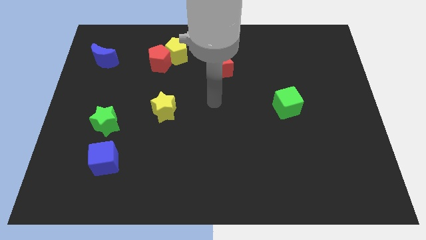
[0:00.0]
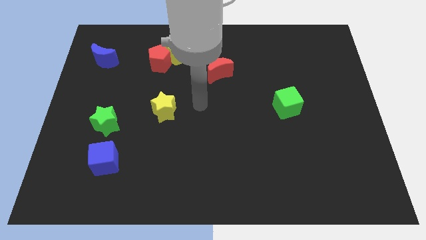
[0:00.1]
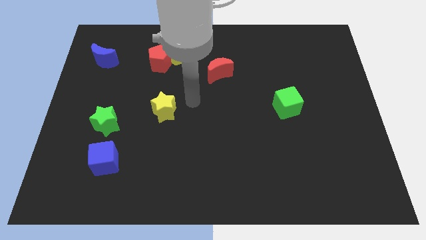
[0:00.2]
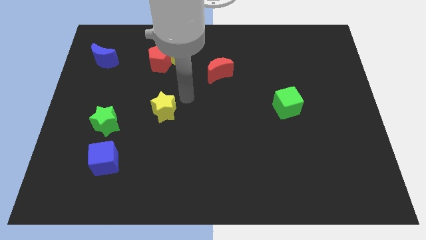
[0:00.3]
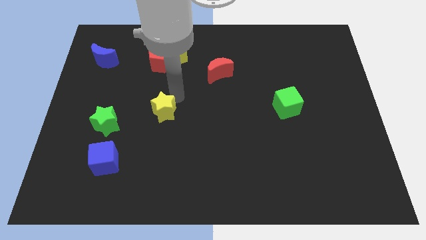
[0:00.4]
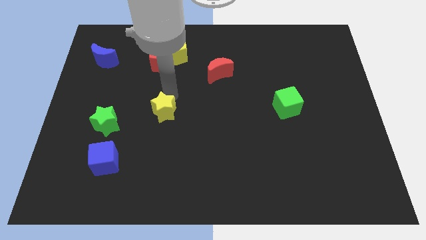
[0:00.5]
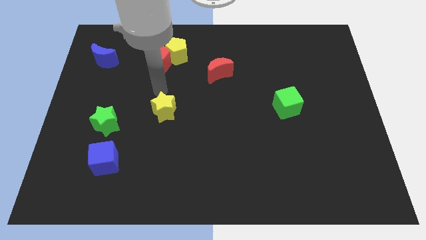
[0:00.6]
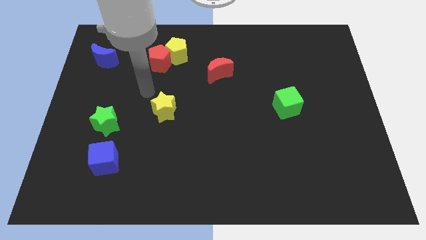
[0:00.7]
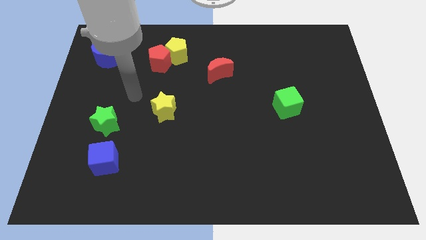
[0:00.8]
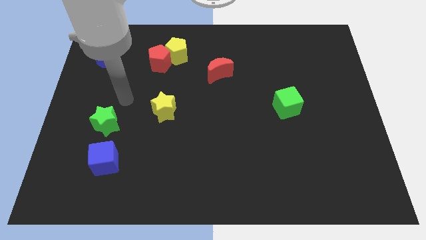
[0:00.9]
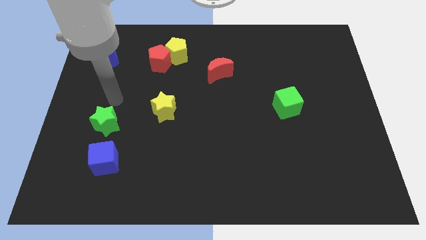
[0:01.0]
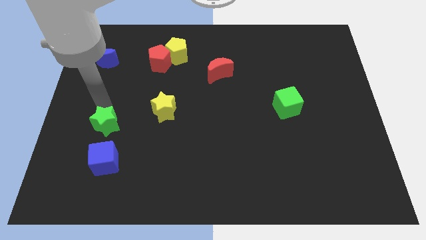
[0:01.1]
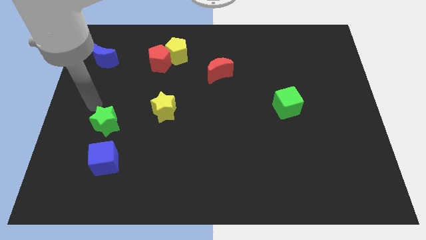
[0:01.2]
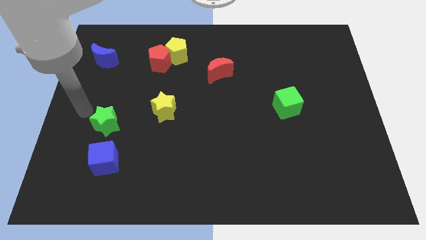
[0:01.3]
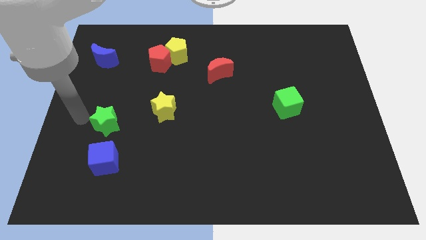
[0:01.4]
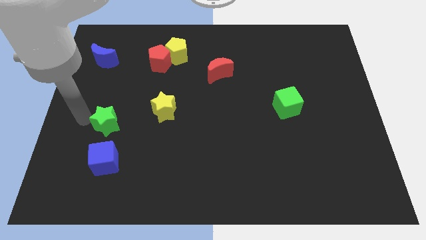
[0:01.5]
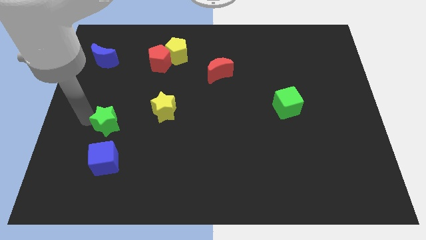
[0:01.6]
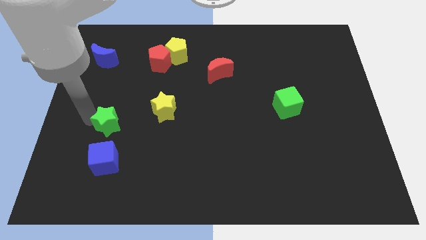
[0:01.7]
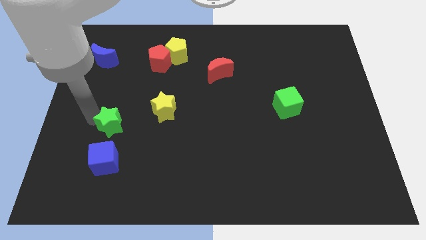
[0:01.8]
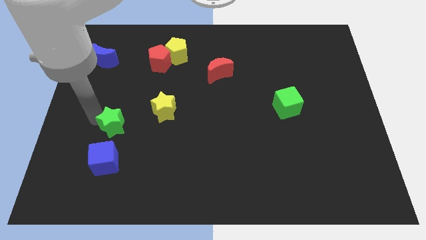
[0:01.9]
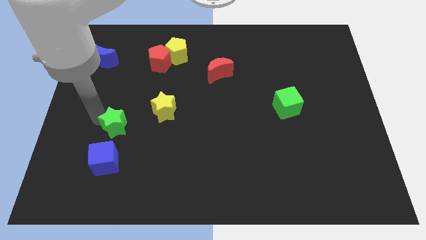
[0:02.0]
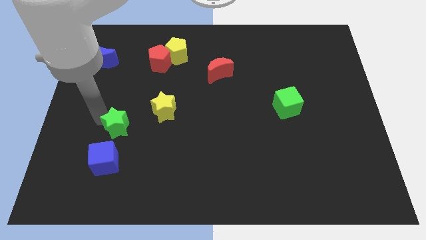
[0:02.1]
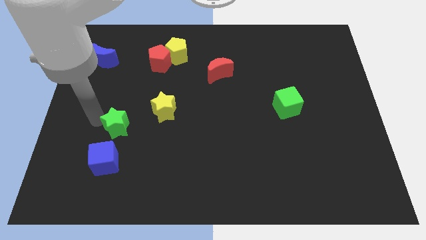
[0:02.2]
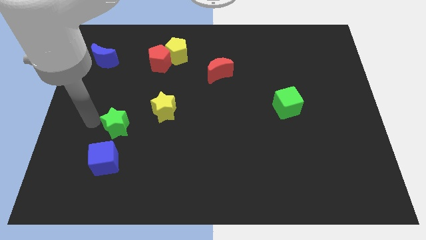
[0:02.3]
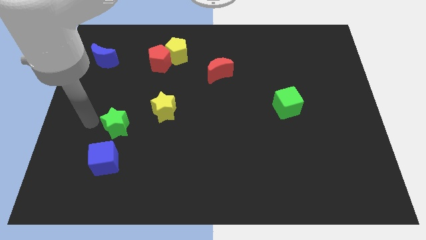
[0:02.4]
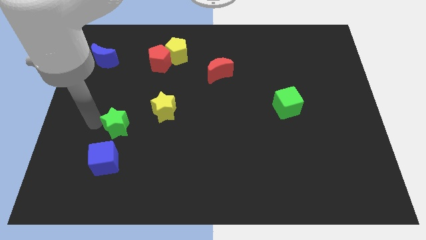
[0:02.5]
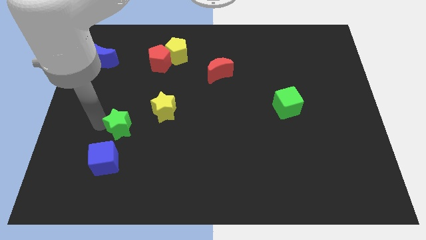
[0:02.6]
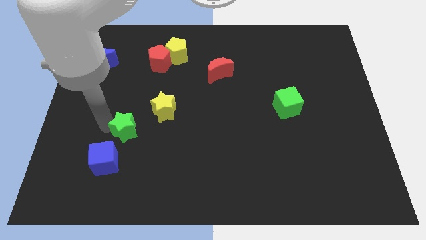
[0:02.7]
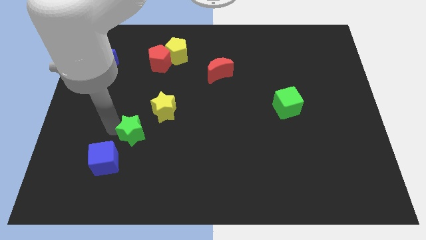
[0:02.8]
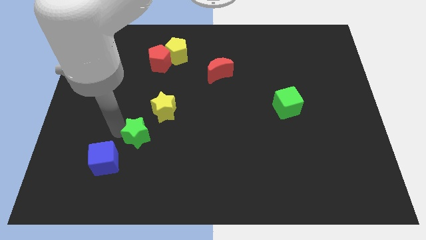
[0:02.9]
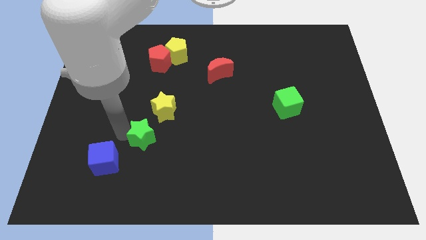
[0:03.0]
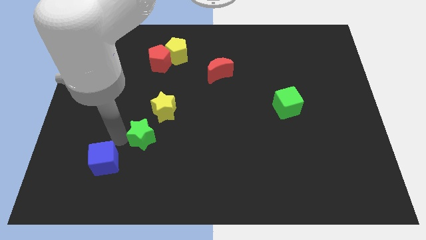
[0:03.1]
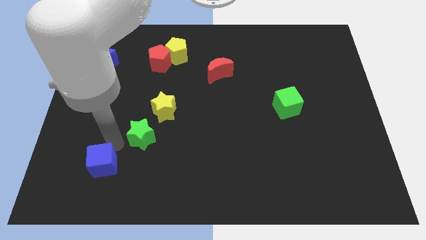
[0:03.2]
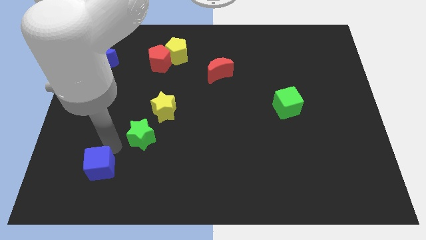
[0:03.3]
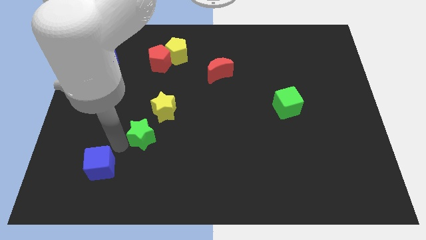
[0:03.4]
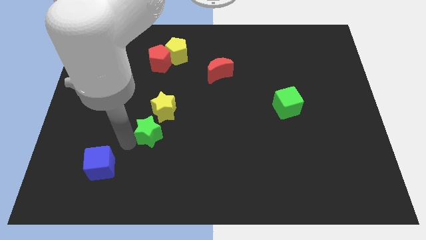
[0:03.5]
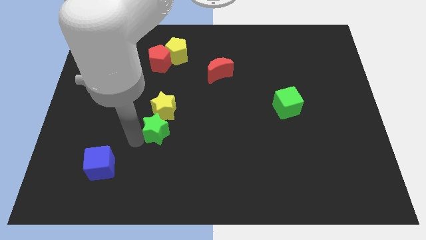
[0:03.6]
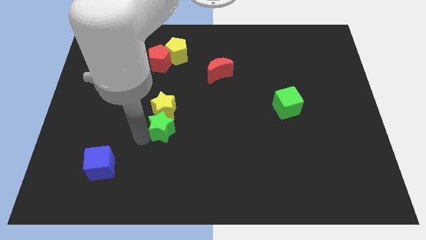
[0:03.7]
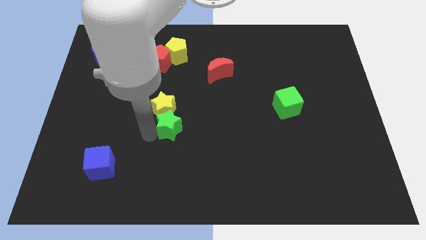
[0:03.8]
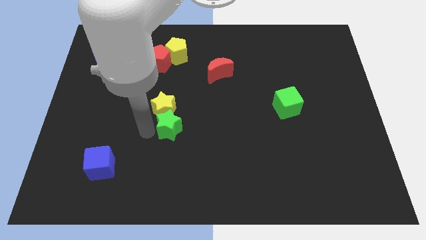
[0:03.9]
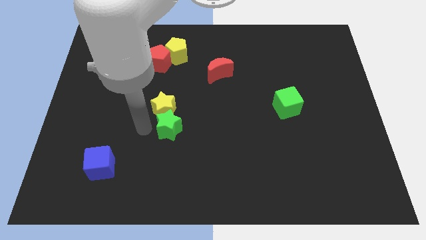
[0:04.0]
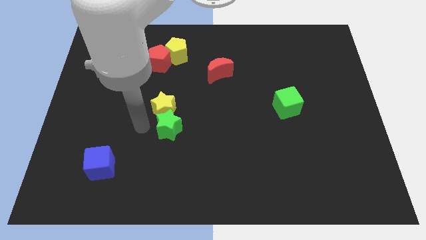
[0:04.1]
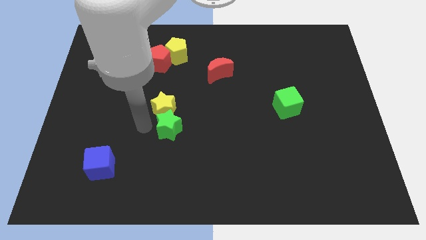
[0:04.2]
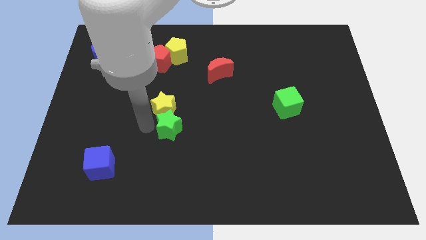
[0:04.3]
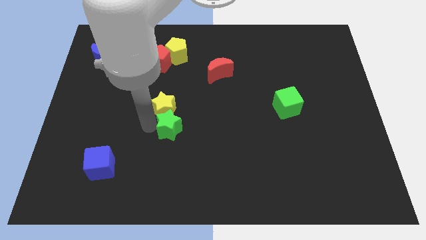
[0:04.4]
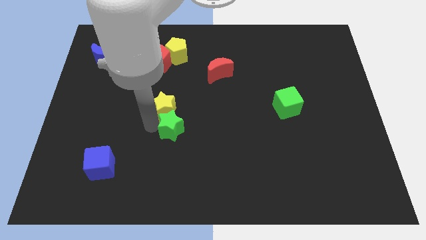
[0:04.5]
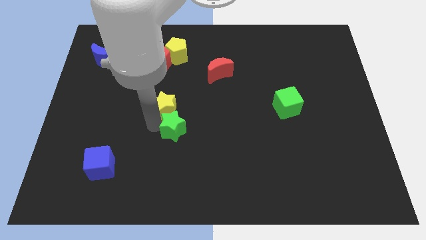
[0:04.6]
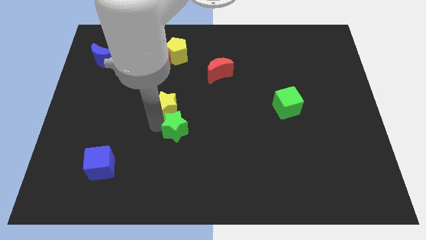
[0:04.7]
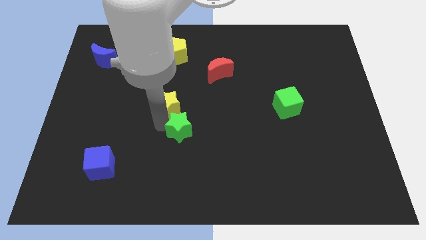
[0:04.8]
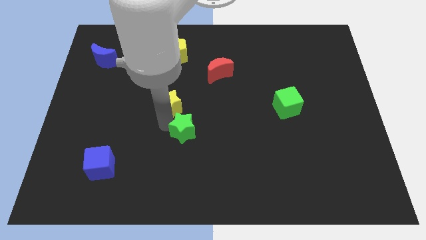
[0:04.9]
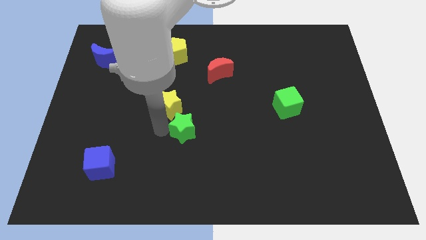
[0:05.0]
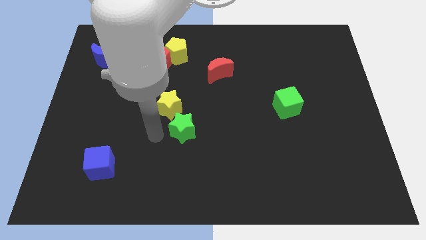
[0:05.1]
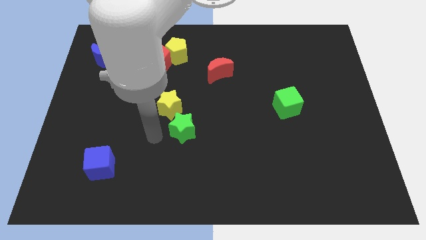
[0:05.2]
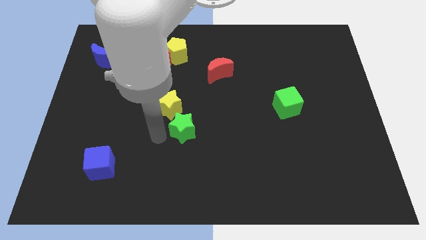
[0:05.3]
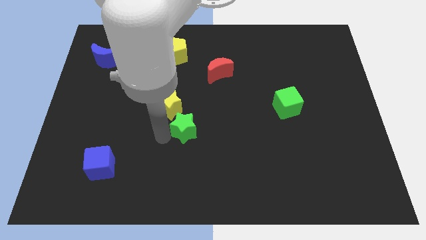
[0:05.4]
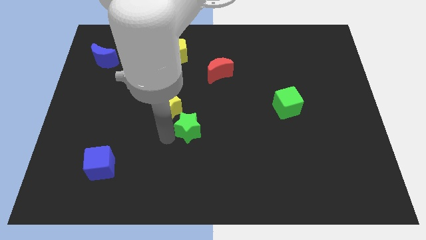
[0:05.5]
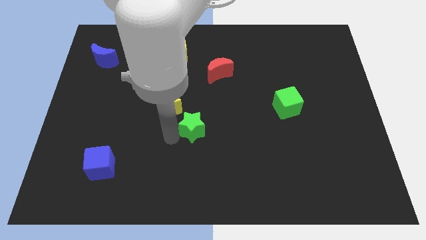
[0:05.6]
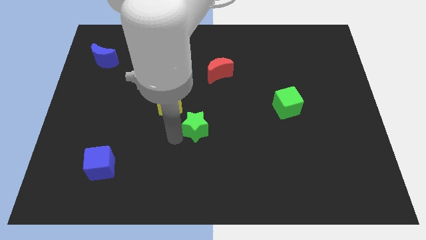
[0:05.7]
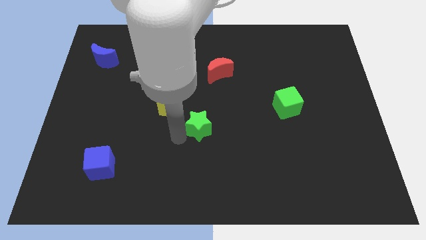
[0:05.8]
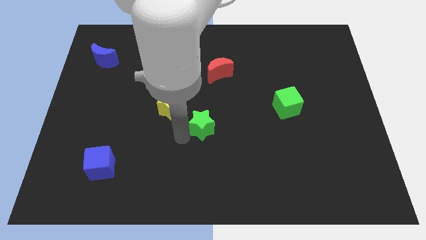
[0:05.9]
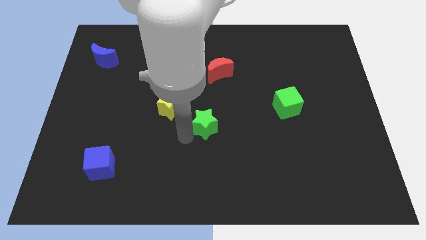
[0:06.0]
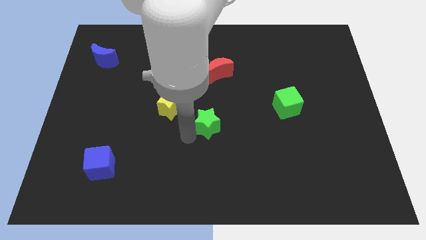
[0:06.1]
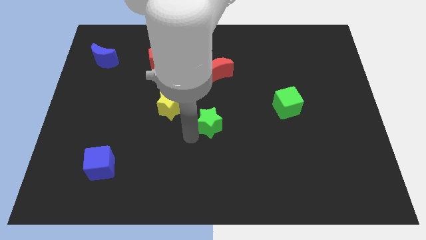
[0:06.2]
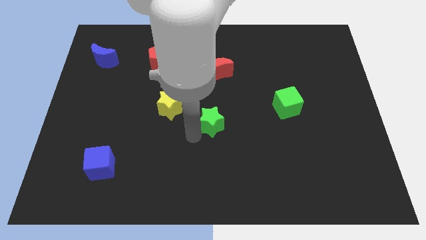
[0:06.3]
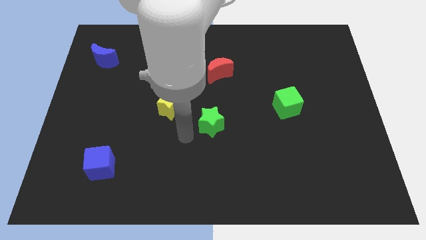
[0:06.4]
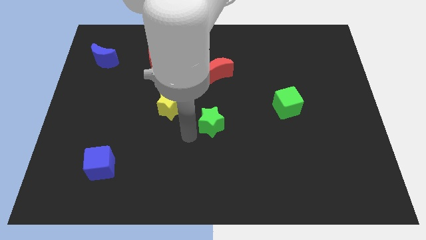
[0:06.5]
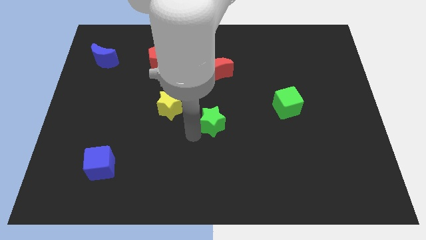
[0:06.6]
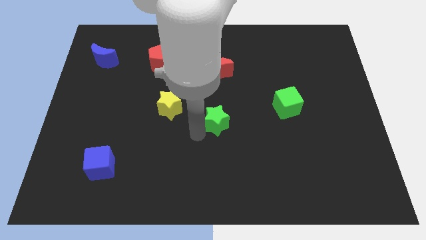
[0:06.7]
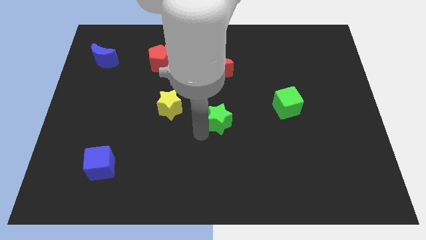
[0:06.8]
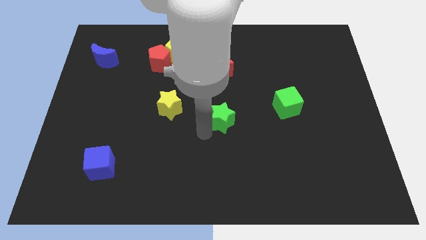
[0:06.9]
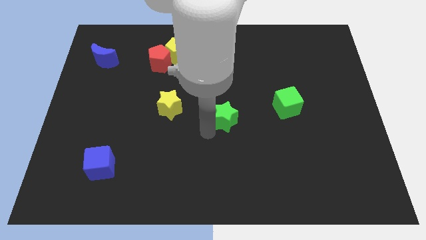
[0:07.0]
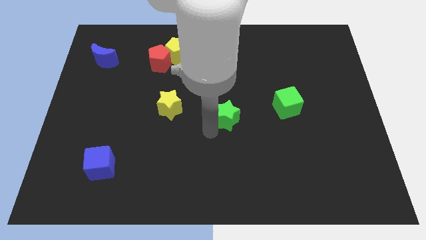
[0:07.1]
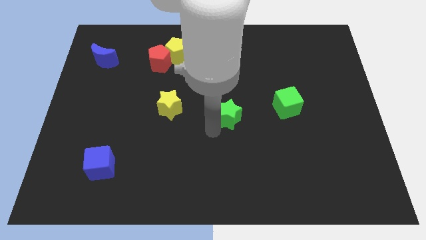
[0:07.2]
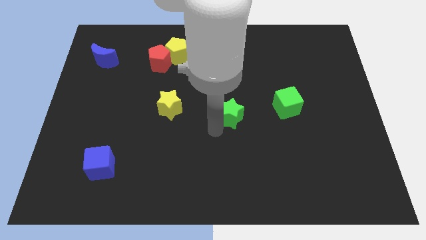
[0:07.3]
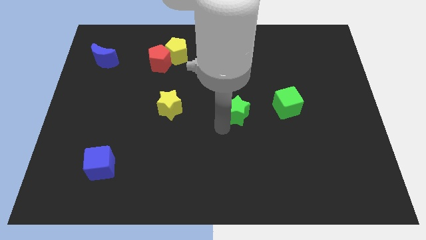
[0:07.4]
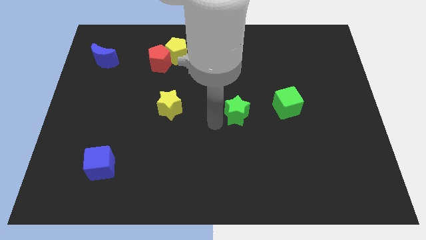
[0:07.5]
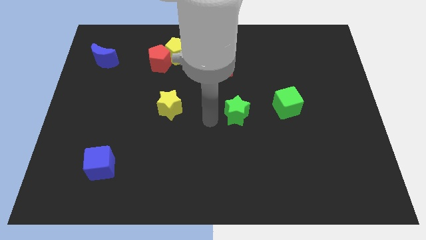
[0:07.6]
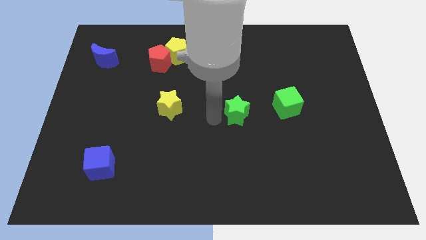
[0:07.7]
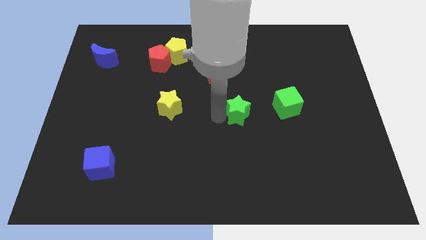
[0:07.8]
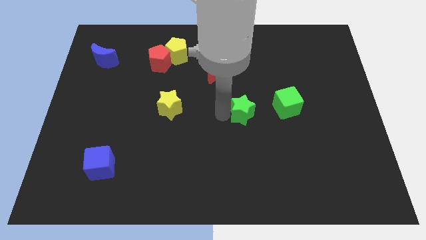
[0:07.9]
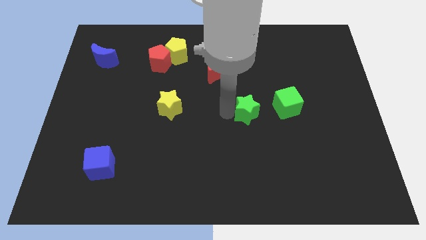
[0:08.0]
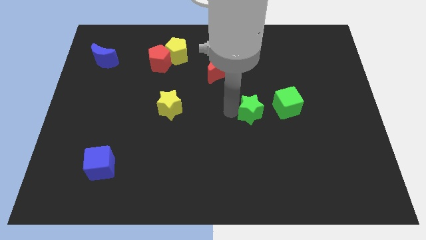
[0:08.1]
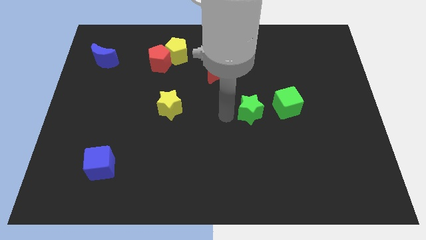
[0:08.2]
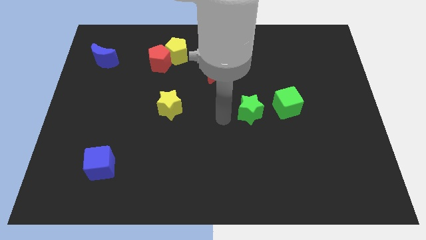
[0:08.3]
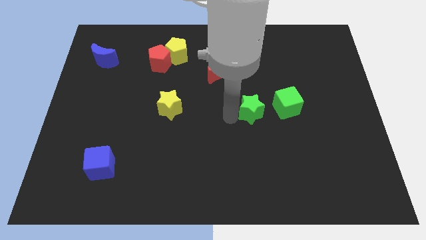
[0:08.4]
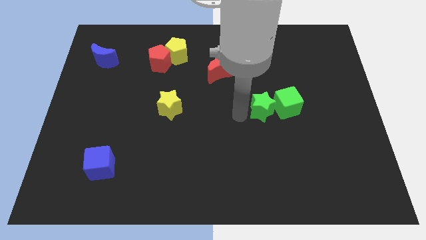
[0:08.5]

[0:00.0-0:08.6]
put the green star close to the green cube
